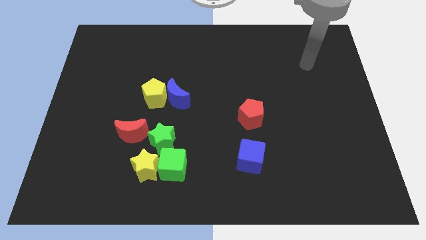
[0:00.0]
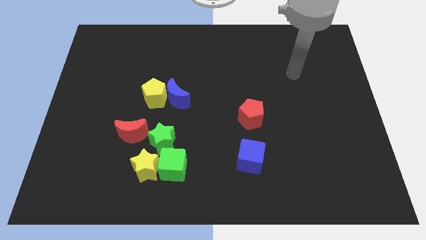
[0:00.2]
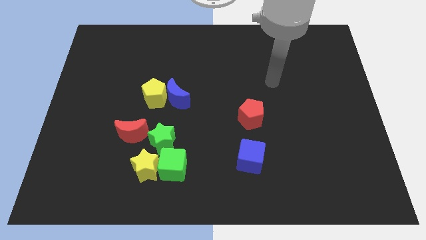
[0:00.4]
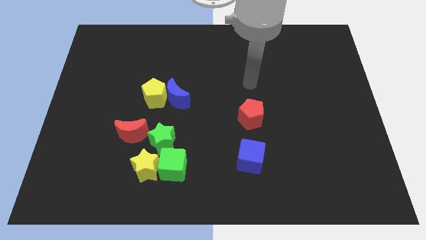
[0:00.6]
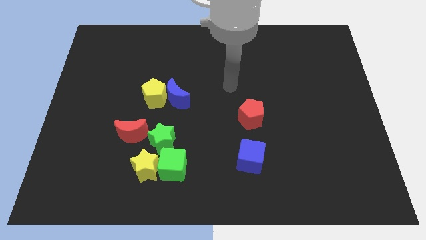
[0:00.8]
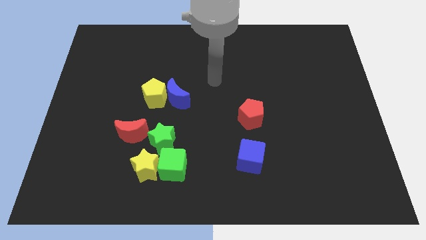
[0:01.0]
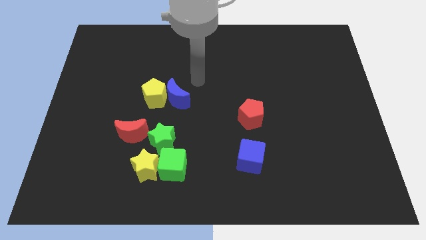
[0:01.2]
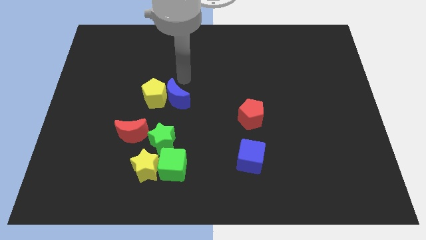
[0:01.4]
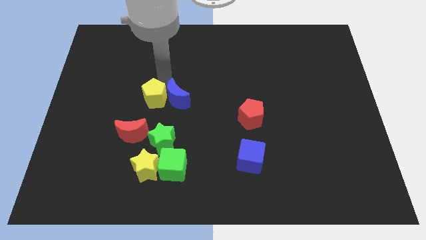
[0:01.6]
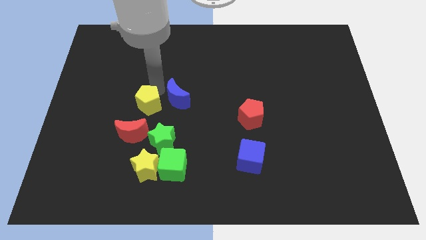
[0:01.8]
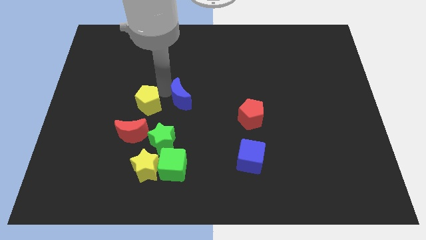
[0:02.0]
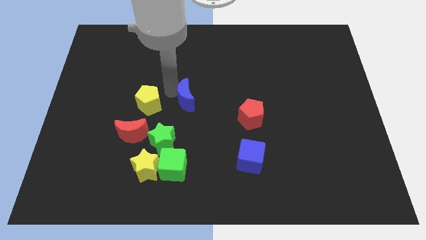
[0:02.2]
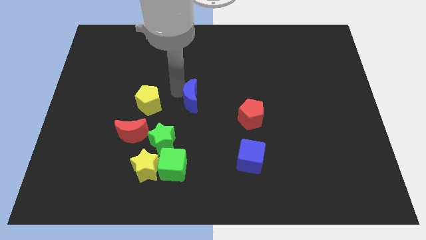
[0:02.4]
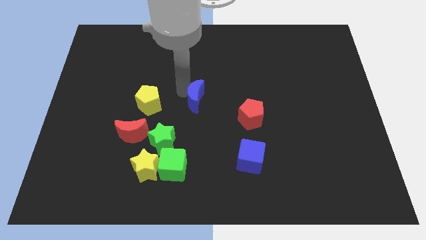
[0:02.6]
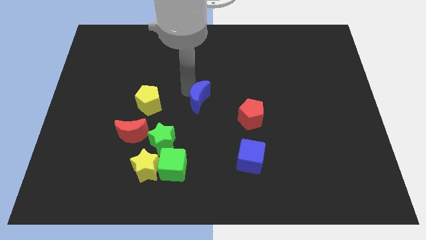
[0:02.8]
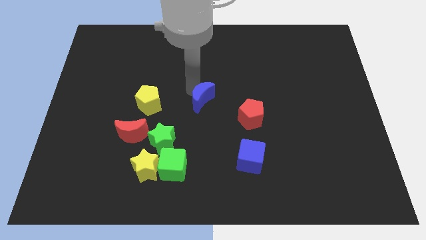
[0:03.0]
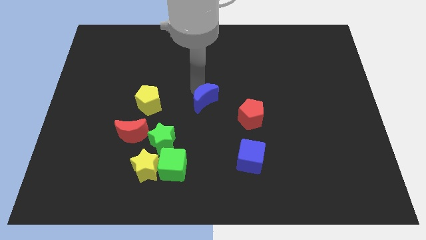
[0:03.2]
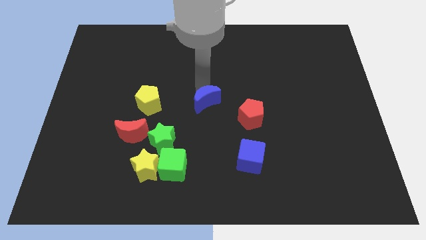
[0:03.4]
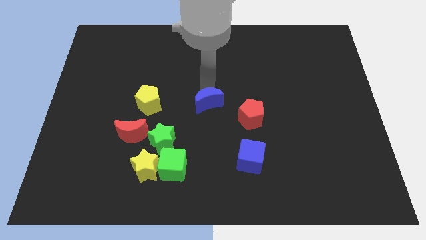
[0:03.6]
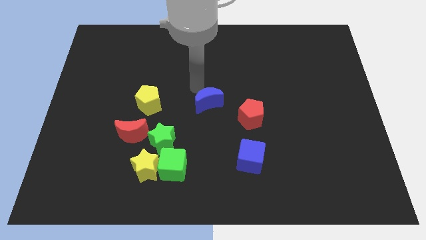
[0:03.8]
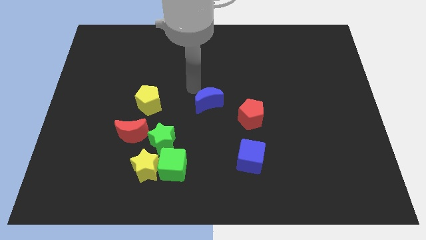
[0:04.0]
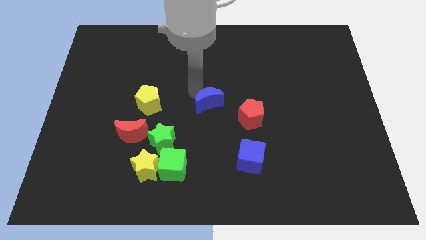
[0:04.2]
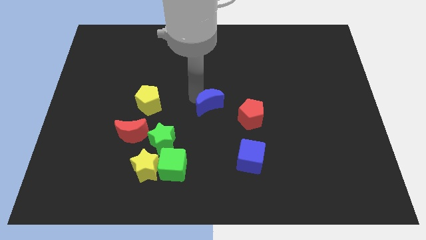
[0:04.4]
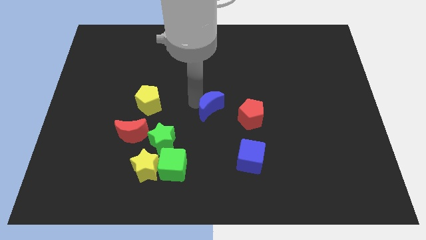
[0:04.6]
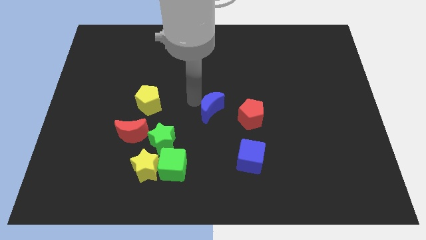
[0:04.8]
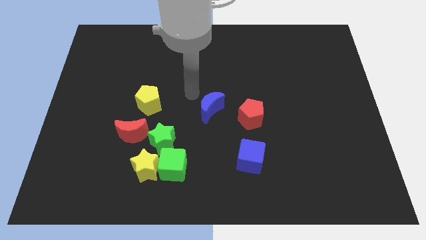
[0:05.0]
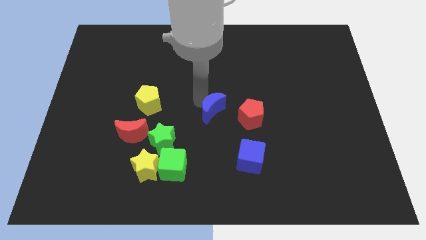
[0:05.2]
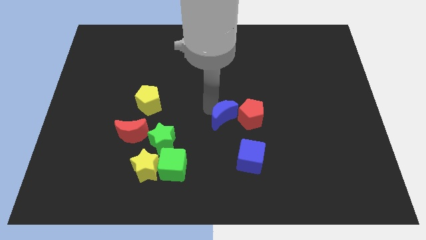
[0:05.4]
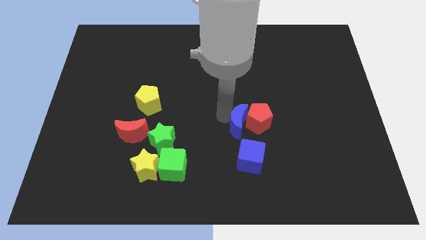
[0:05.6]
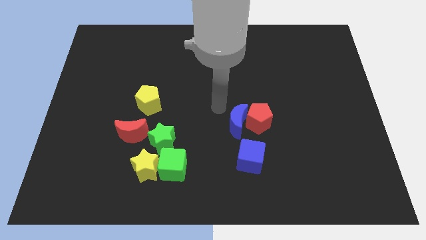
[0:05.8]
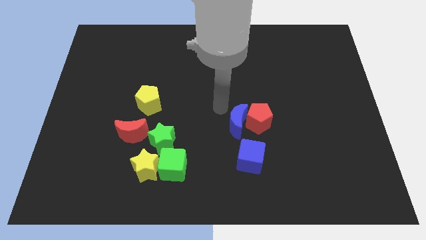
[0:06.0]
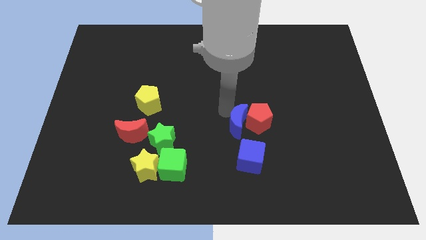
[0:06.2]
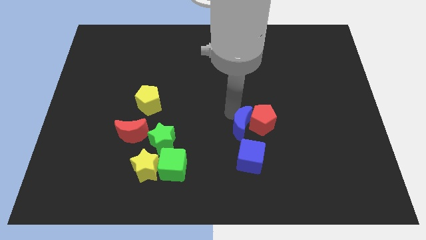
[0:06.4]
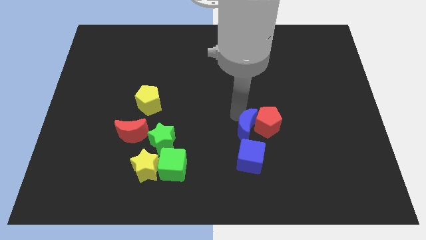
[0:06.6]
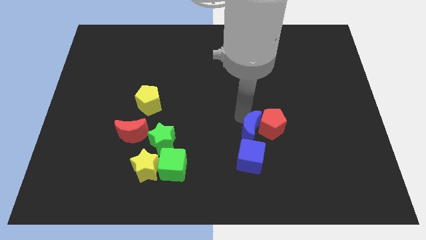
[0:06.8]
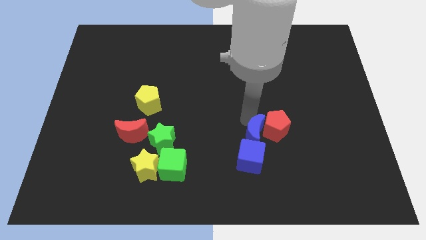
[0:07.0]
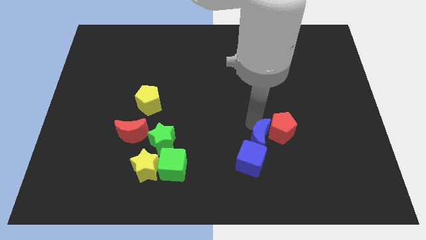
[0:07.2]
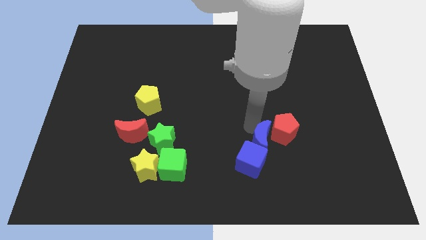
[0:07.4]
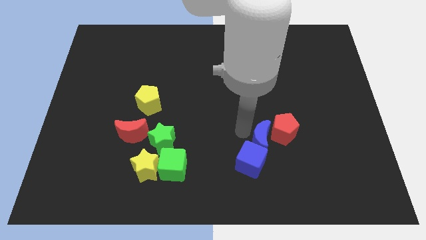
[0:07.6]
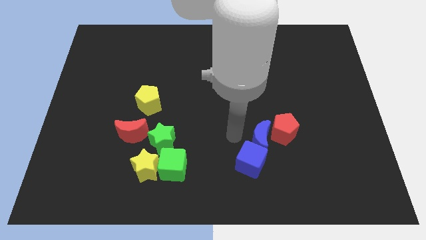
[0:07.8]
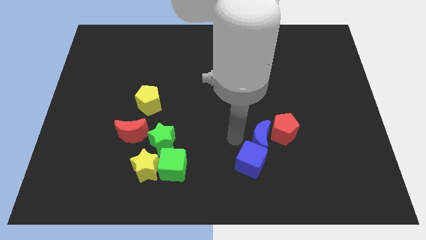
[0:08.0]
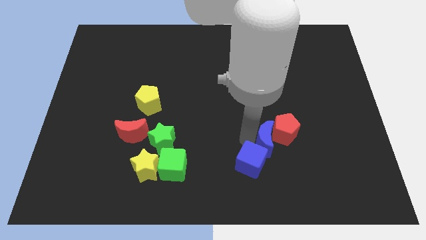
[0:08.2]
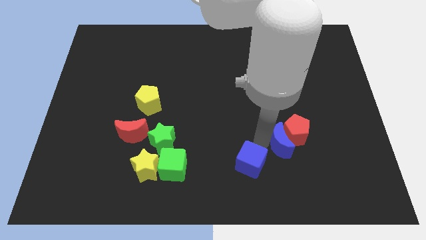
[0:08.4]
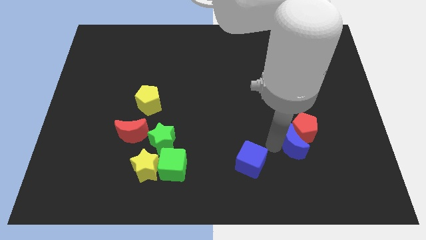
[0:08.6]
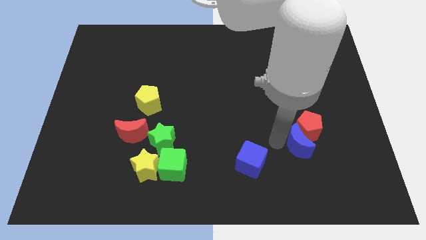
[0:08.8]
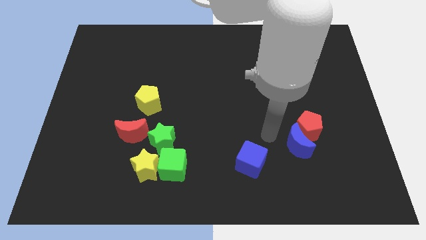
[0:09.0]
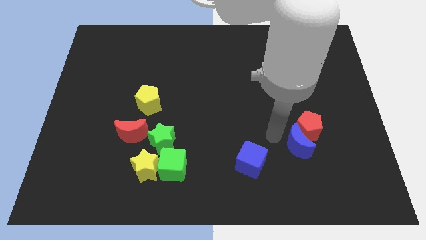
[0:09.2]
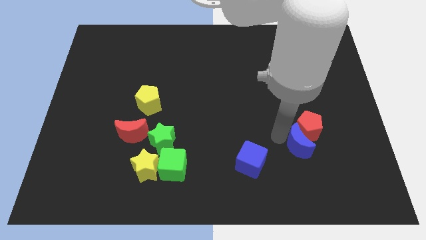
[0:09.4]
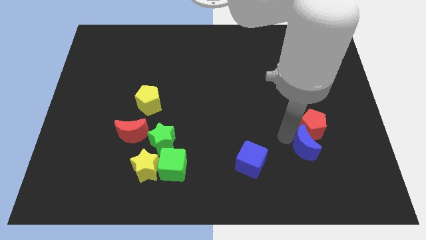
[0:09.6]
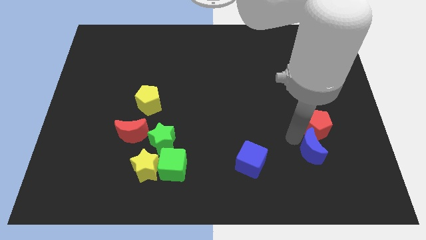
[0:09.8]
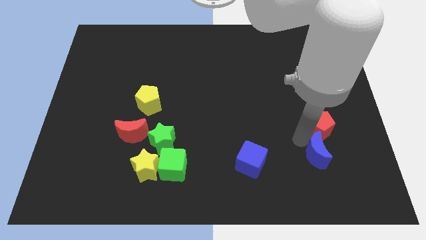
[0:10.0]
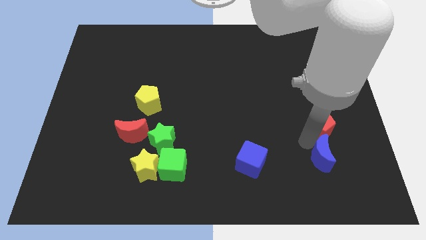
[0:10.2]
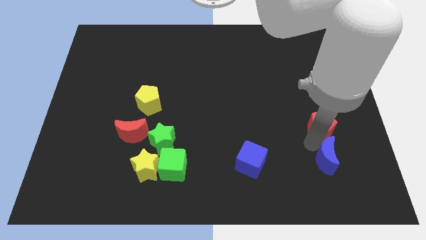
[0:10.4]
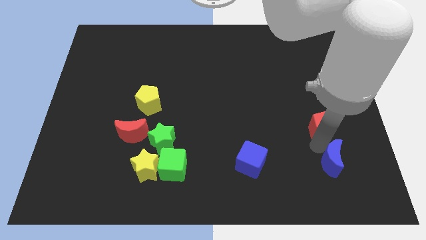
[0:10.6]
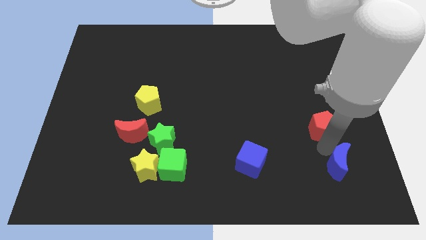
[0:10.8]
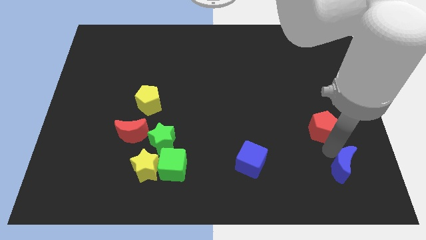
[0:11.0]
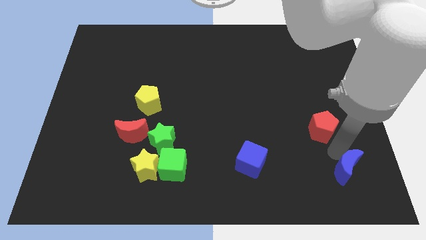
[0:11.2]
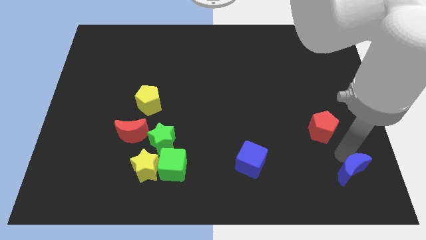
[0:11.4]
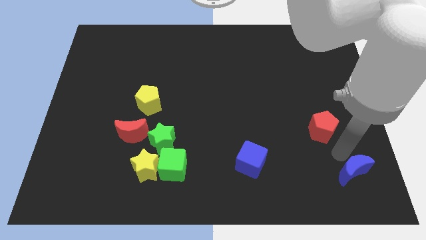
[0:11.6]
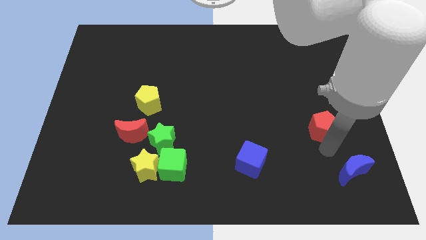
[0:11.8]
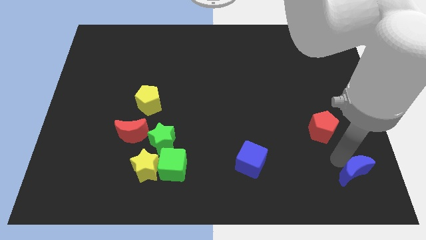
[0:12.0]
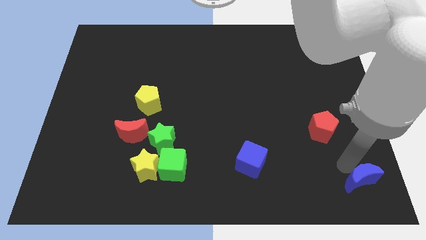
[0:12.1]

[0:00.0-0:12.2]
slide the blue moon to the bottom right
